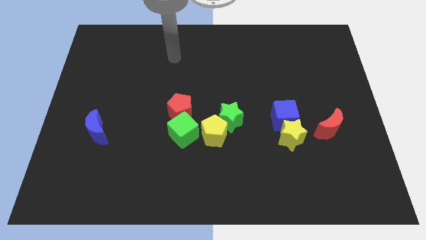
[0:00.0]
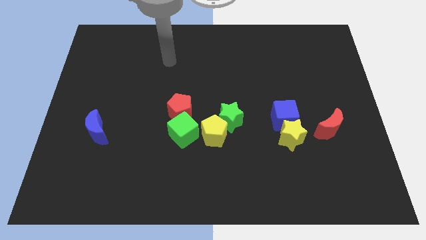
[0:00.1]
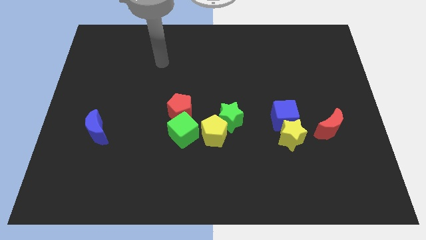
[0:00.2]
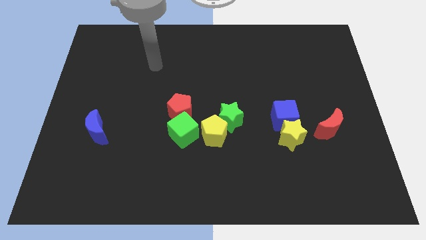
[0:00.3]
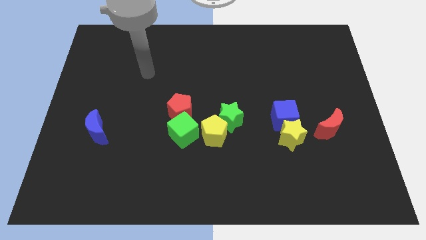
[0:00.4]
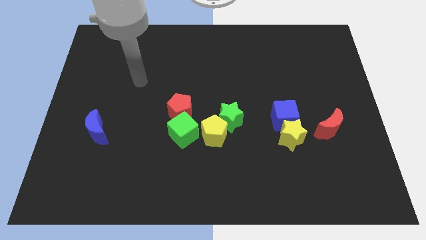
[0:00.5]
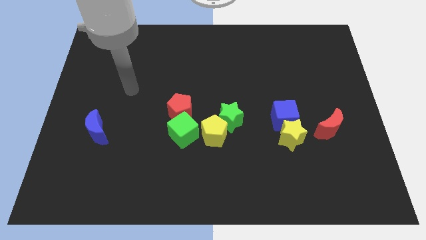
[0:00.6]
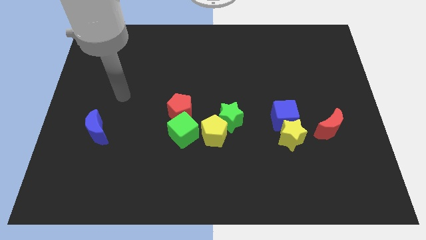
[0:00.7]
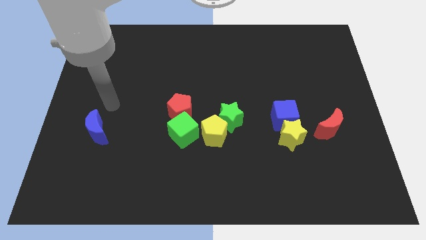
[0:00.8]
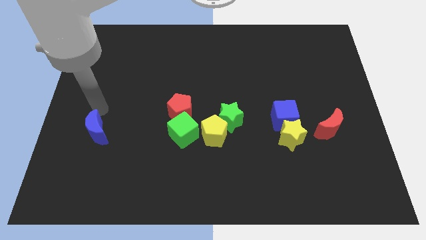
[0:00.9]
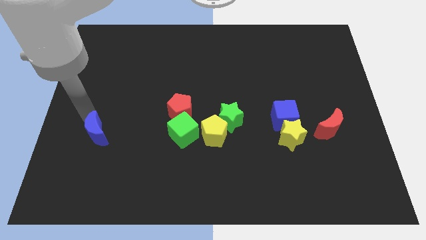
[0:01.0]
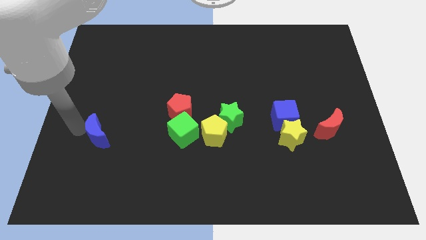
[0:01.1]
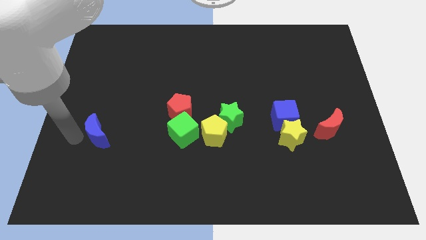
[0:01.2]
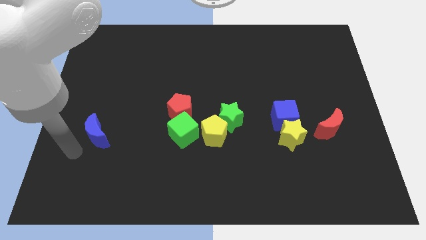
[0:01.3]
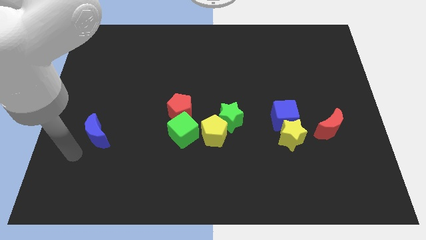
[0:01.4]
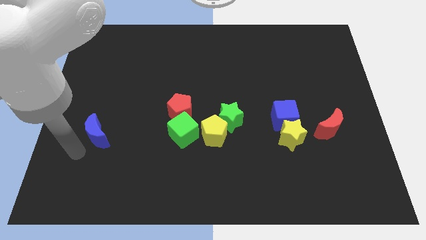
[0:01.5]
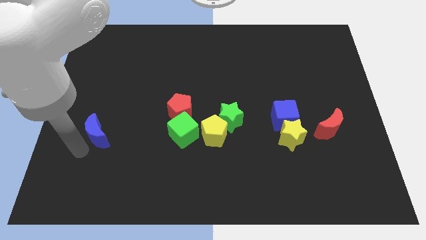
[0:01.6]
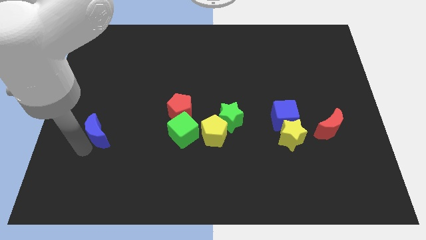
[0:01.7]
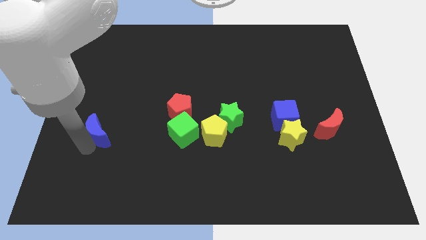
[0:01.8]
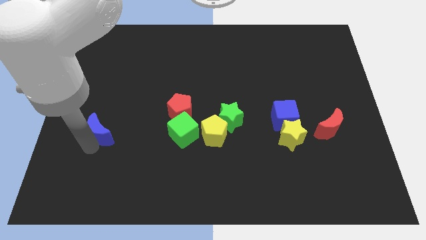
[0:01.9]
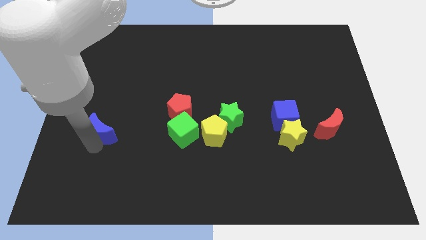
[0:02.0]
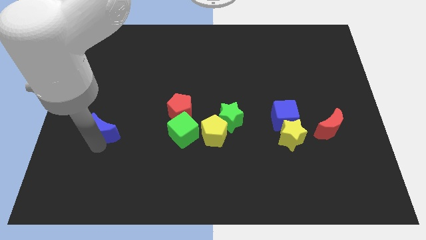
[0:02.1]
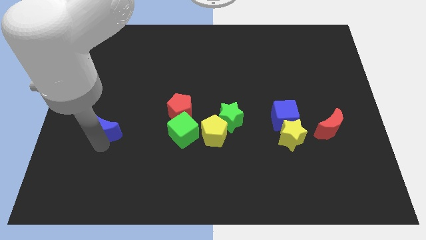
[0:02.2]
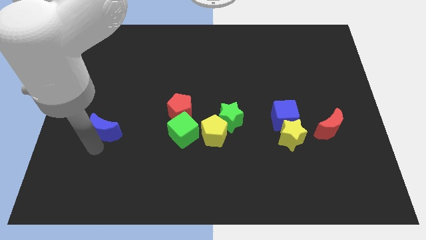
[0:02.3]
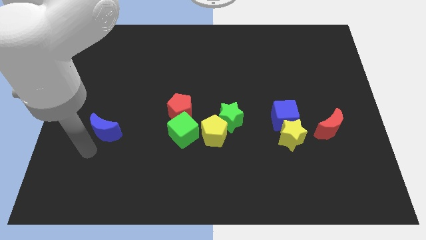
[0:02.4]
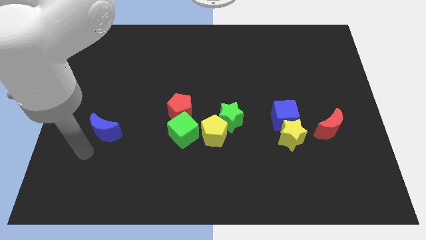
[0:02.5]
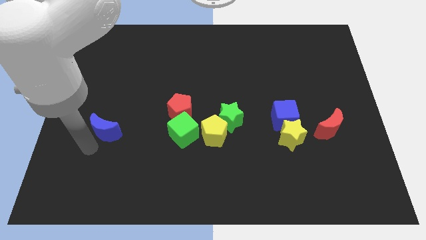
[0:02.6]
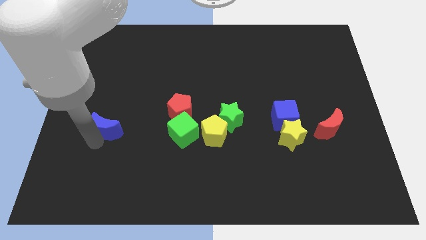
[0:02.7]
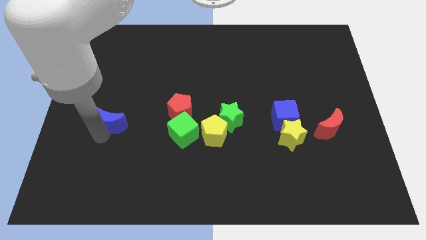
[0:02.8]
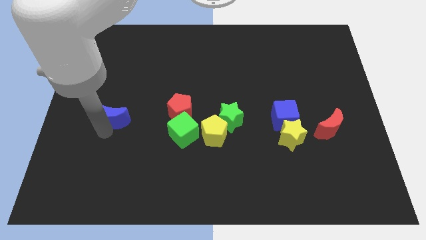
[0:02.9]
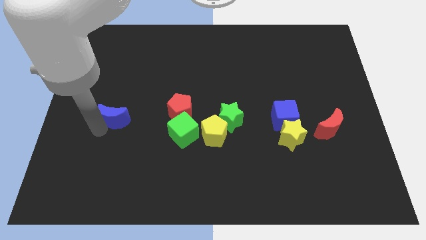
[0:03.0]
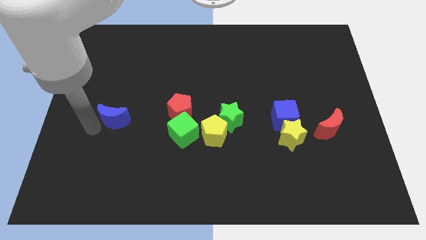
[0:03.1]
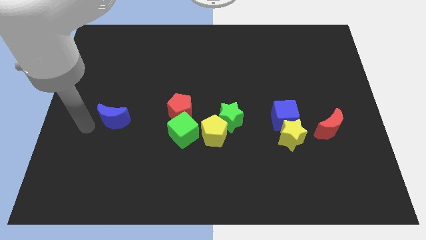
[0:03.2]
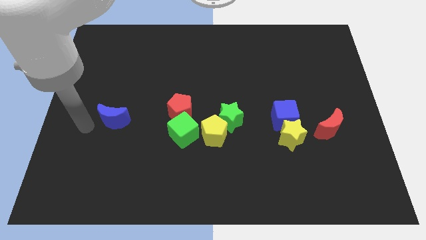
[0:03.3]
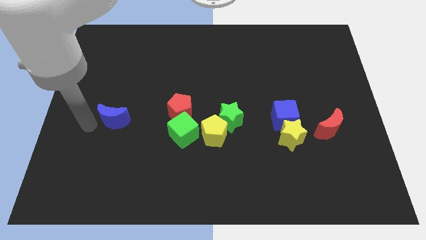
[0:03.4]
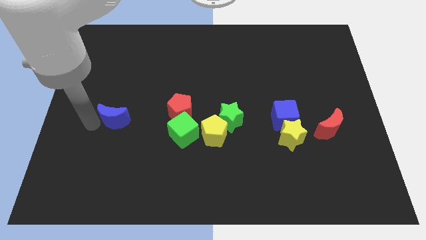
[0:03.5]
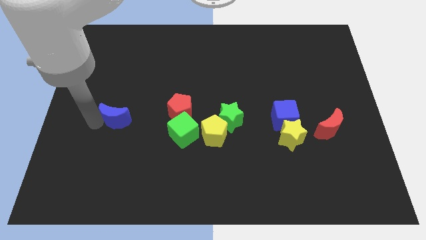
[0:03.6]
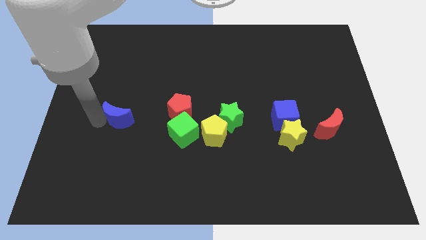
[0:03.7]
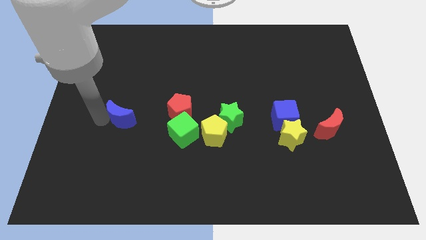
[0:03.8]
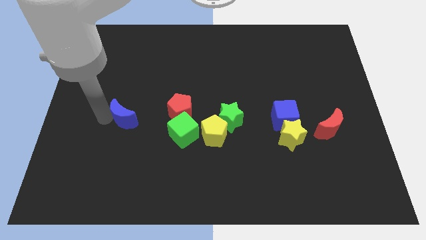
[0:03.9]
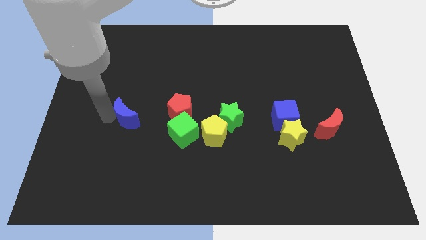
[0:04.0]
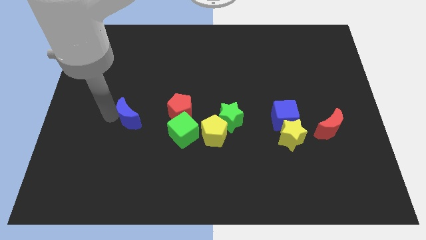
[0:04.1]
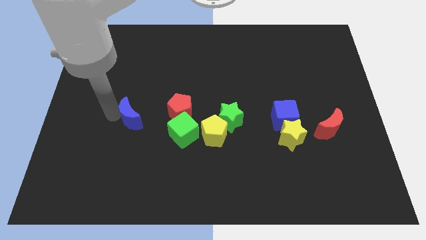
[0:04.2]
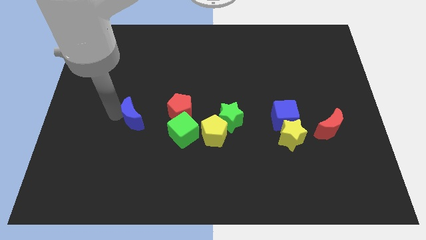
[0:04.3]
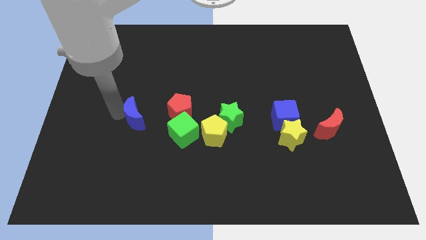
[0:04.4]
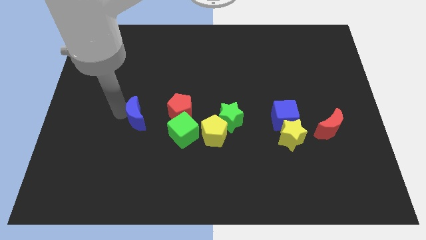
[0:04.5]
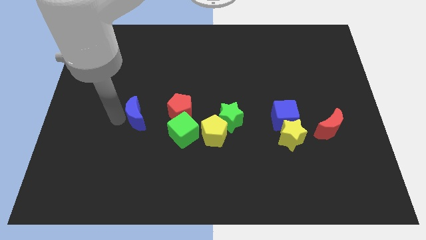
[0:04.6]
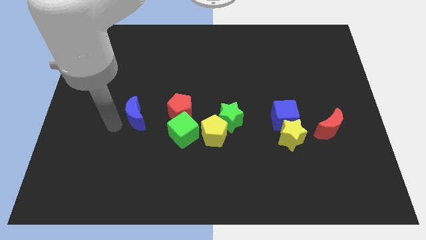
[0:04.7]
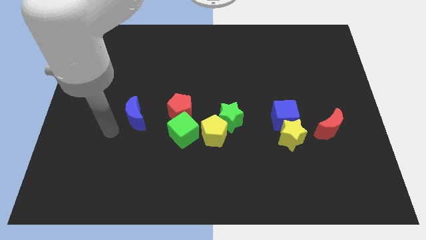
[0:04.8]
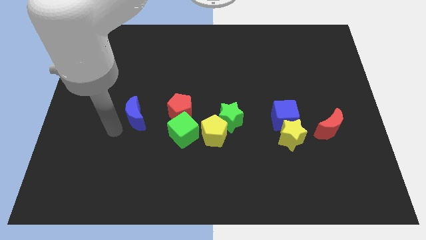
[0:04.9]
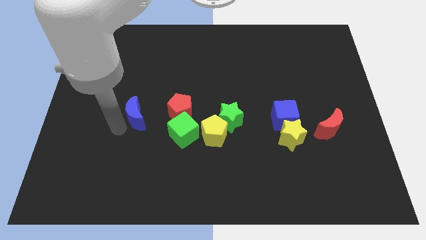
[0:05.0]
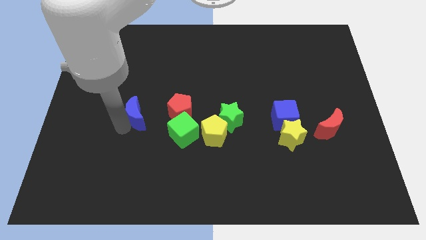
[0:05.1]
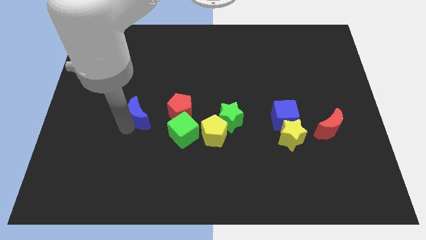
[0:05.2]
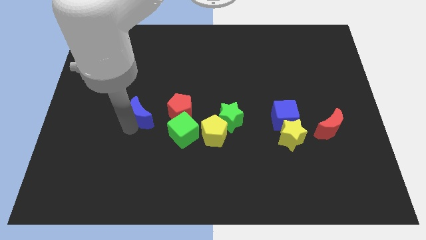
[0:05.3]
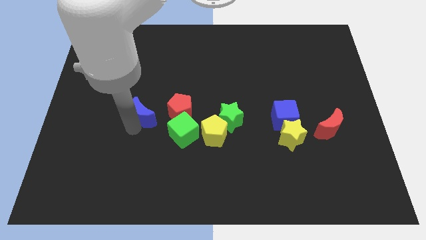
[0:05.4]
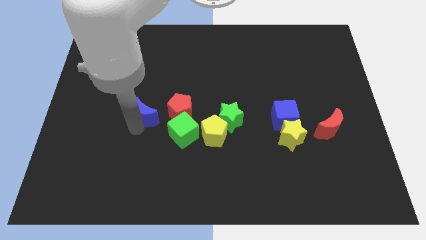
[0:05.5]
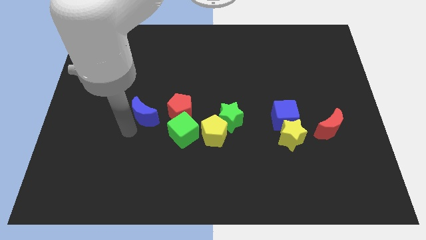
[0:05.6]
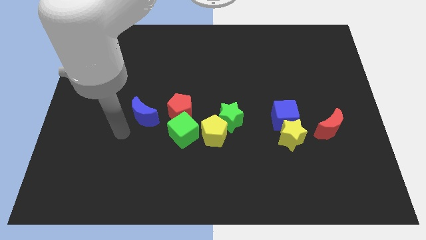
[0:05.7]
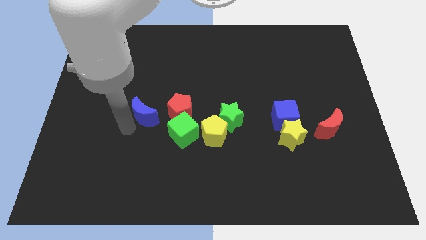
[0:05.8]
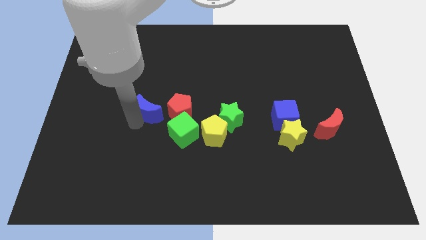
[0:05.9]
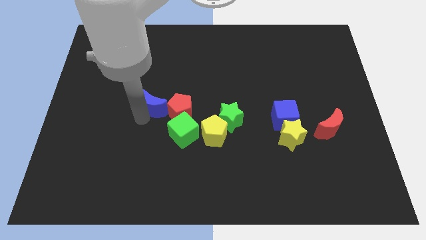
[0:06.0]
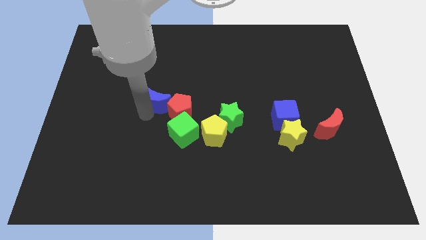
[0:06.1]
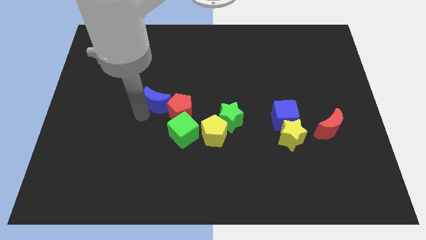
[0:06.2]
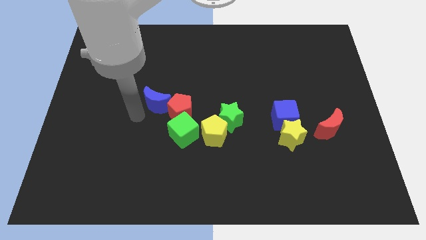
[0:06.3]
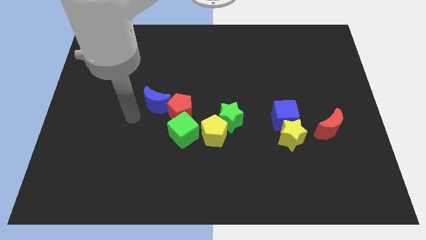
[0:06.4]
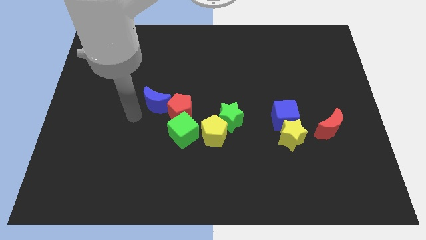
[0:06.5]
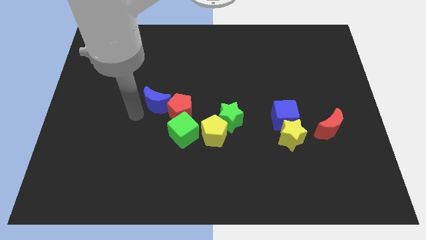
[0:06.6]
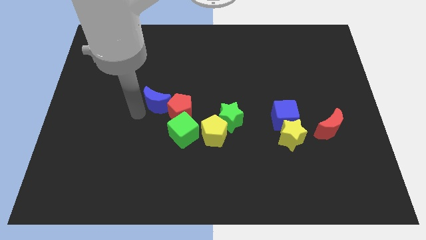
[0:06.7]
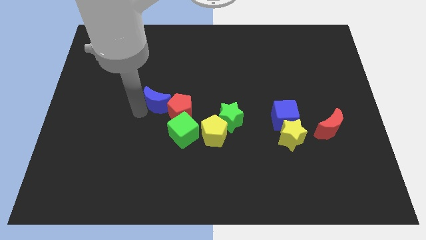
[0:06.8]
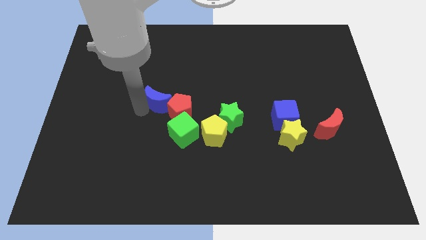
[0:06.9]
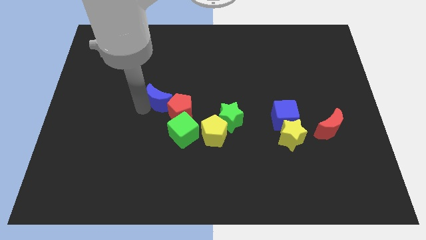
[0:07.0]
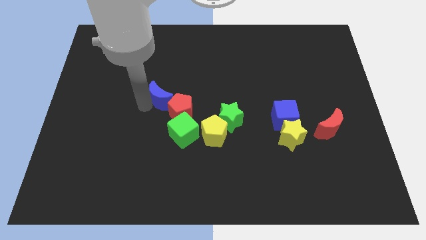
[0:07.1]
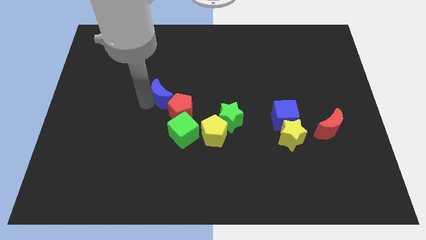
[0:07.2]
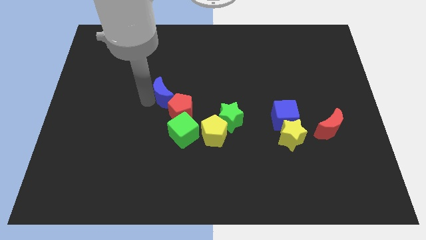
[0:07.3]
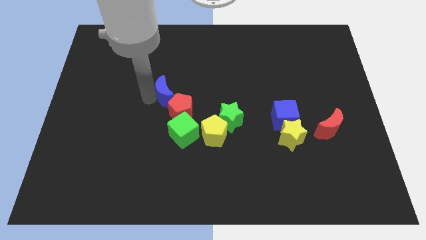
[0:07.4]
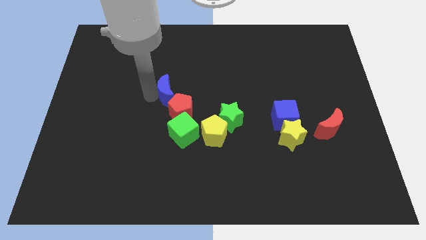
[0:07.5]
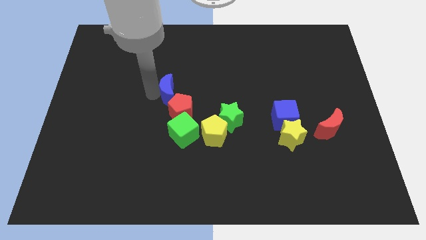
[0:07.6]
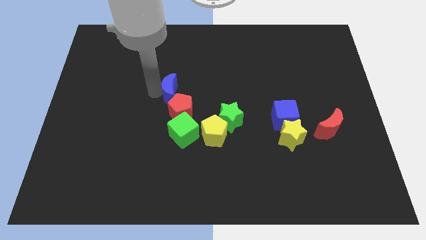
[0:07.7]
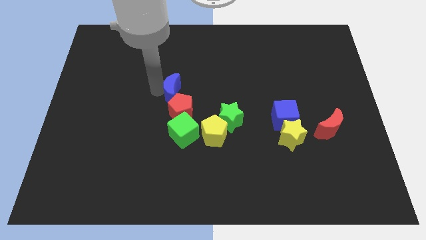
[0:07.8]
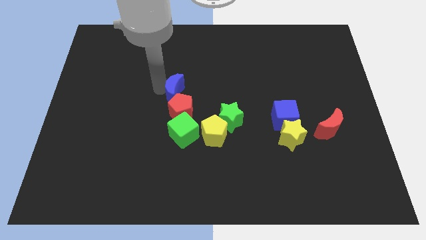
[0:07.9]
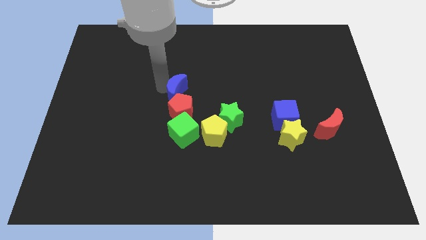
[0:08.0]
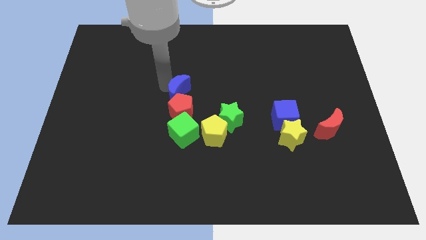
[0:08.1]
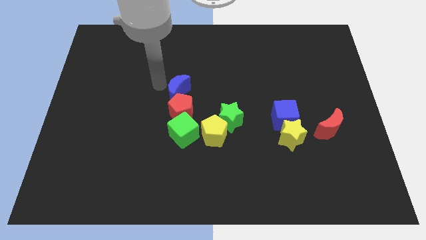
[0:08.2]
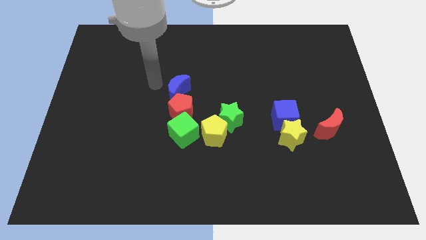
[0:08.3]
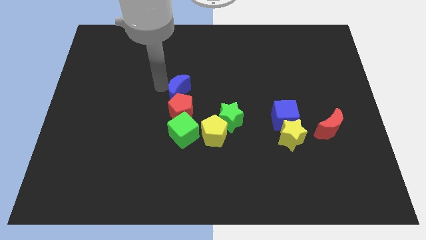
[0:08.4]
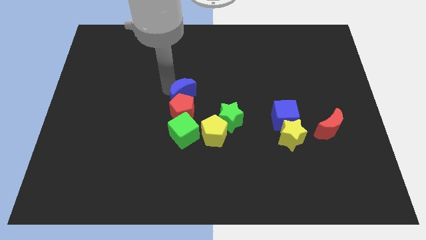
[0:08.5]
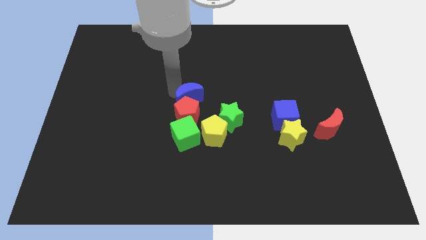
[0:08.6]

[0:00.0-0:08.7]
push the blue moon to the top left of the green star
